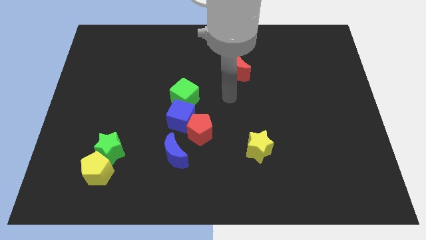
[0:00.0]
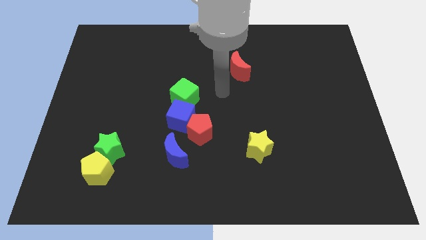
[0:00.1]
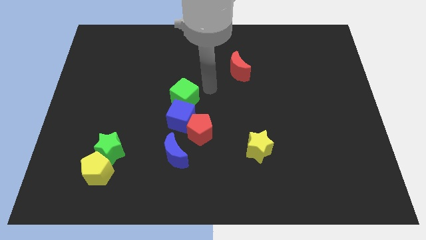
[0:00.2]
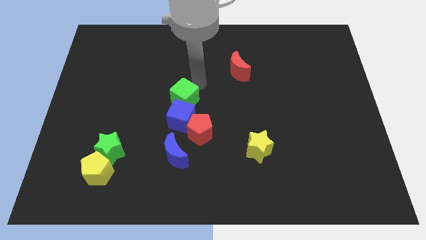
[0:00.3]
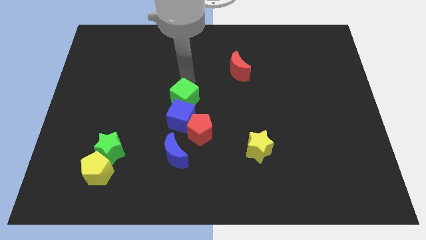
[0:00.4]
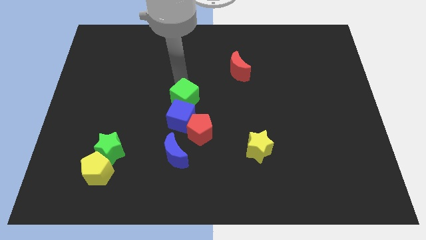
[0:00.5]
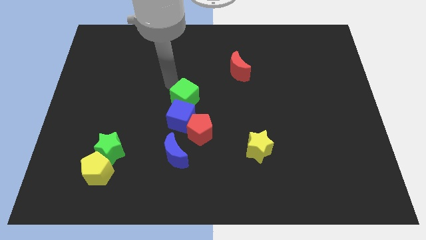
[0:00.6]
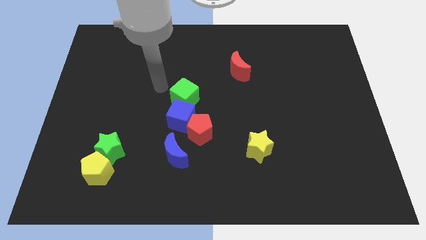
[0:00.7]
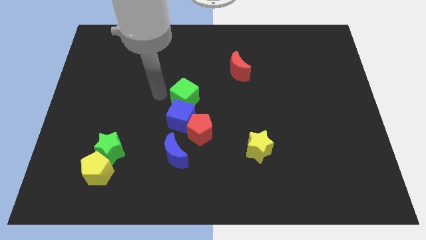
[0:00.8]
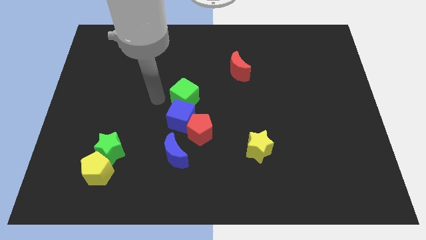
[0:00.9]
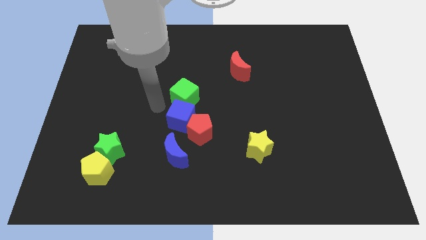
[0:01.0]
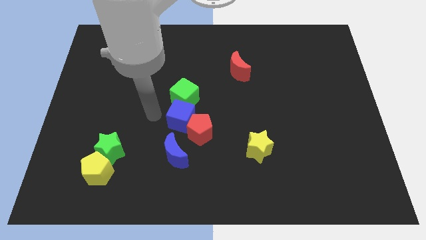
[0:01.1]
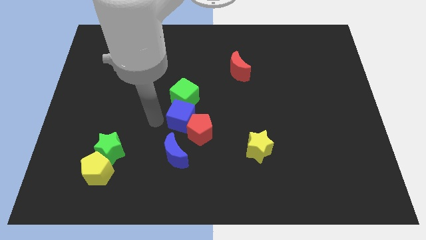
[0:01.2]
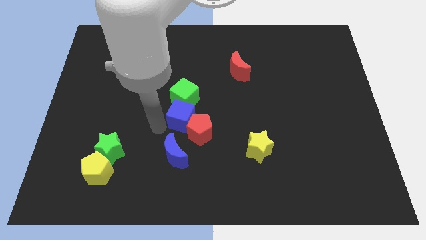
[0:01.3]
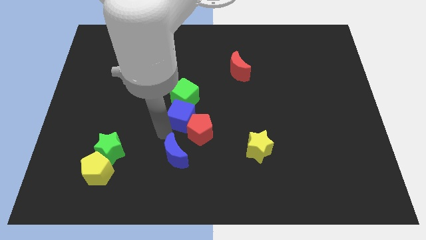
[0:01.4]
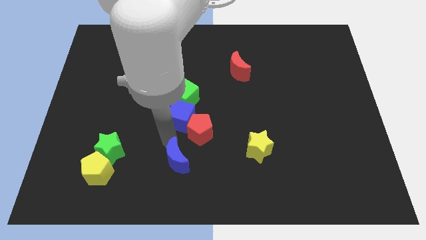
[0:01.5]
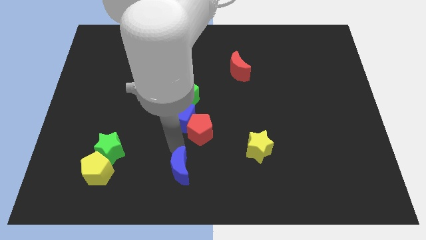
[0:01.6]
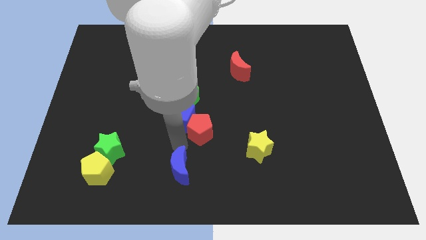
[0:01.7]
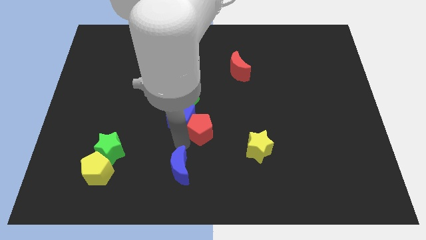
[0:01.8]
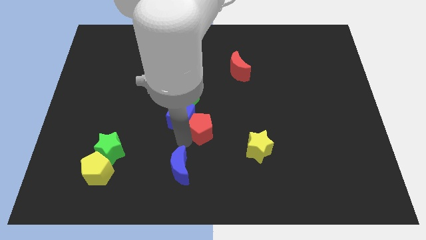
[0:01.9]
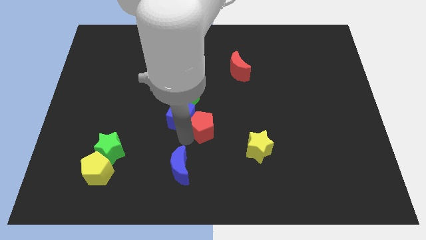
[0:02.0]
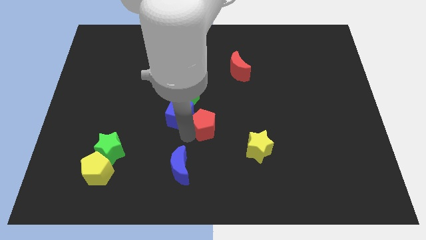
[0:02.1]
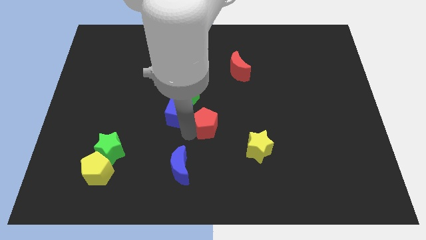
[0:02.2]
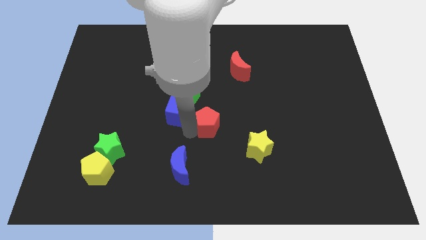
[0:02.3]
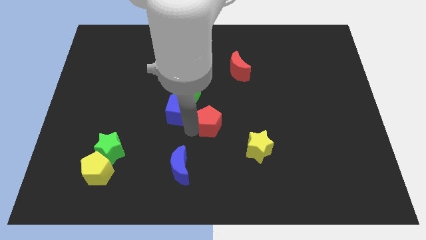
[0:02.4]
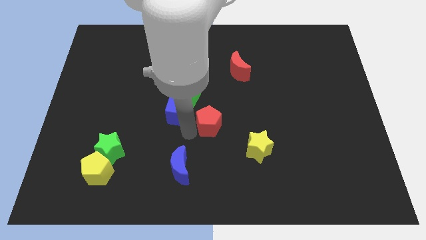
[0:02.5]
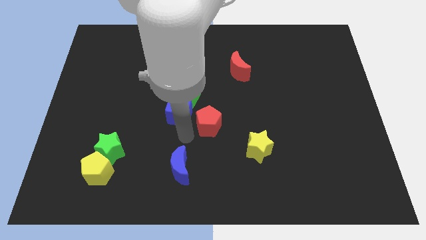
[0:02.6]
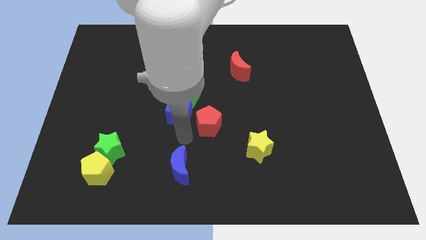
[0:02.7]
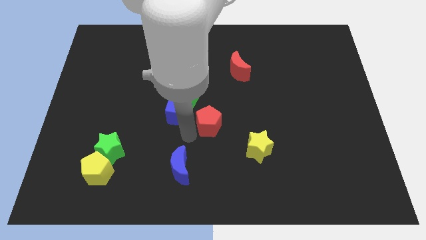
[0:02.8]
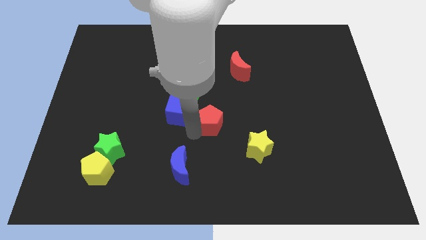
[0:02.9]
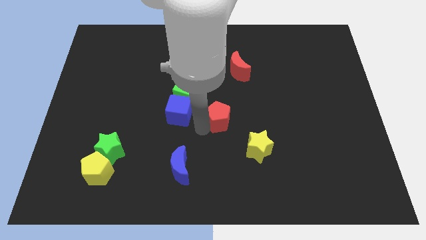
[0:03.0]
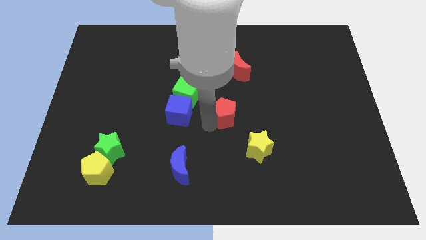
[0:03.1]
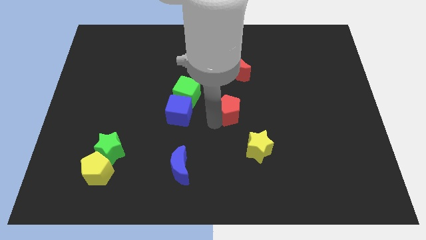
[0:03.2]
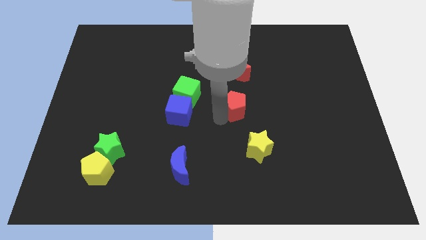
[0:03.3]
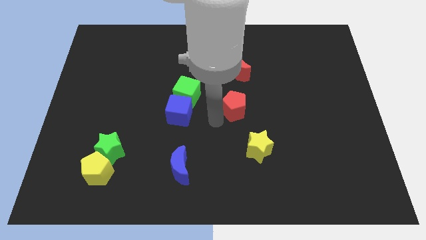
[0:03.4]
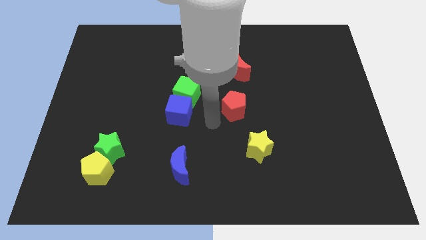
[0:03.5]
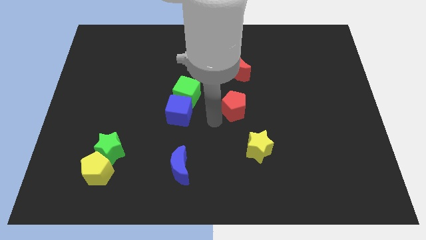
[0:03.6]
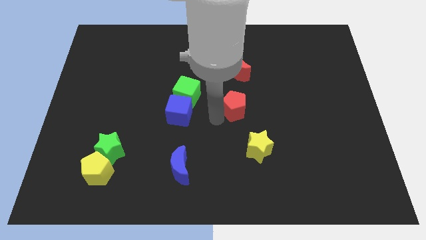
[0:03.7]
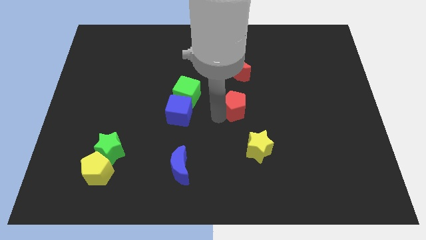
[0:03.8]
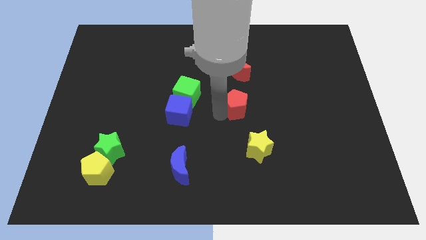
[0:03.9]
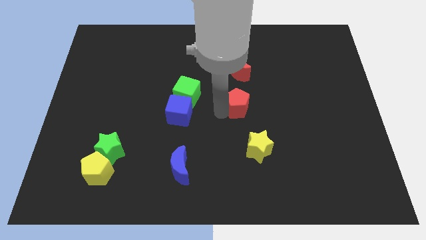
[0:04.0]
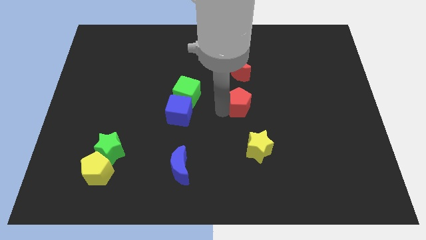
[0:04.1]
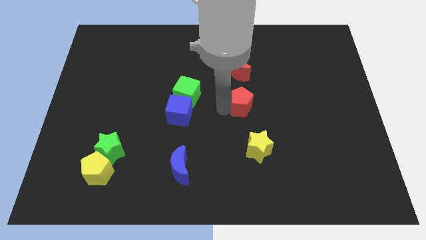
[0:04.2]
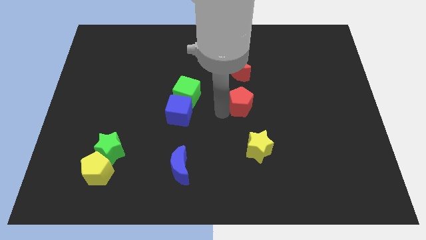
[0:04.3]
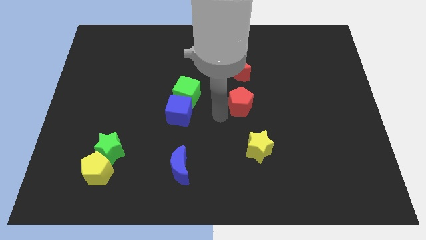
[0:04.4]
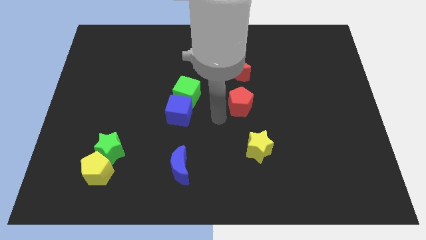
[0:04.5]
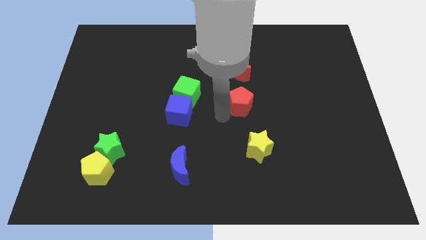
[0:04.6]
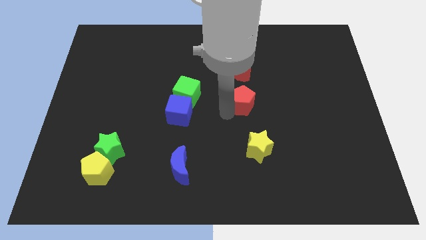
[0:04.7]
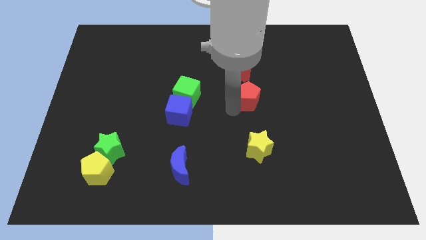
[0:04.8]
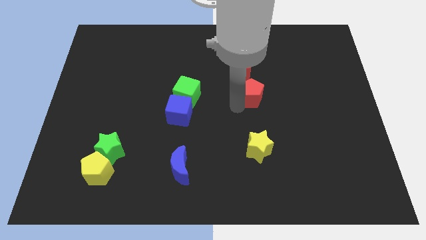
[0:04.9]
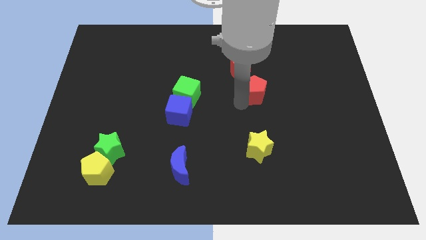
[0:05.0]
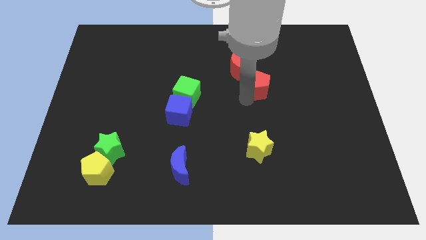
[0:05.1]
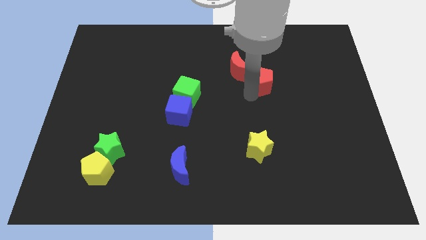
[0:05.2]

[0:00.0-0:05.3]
push the red pentagon upwards and to the right diagonally

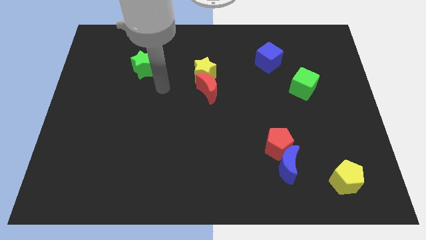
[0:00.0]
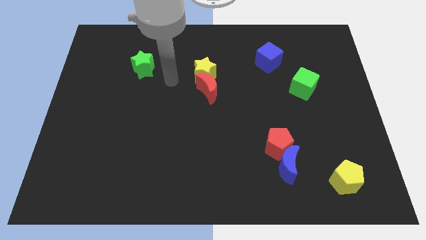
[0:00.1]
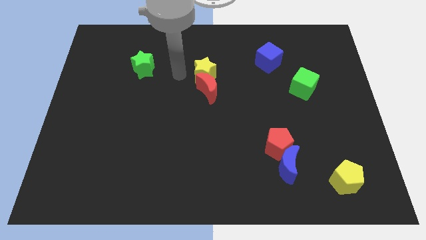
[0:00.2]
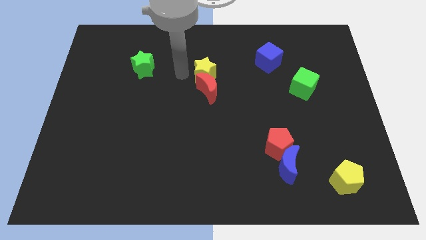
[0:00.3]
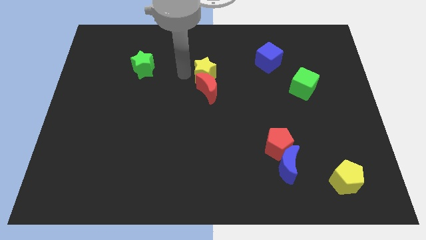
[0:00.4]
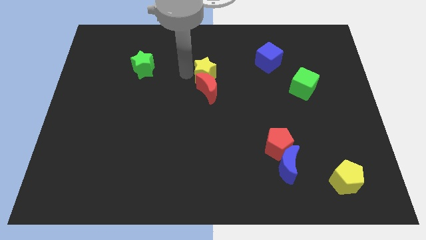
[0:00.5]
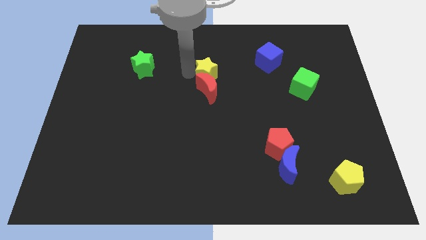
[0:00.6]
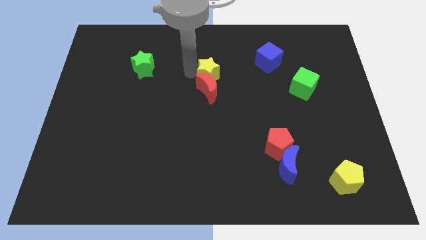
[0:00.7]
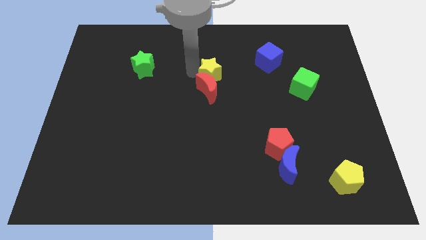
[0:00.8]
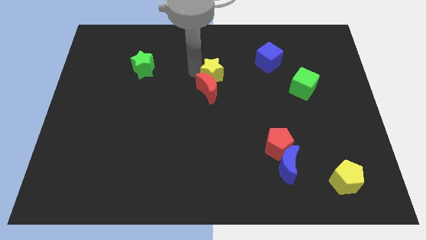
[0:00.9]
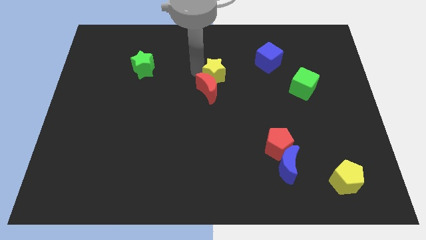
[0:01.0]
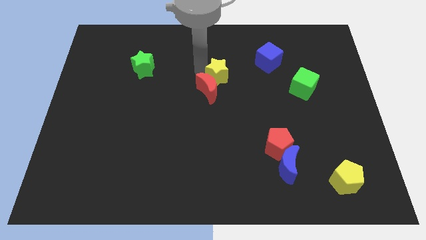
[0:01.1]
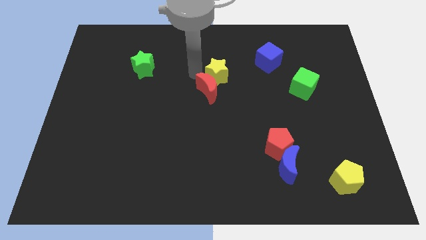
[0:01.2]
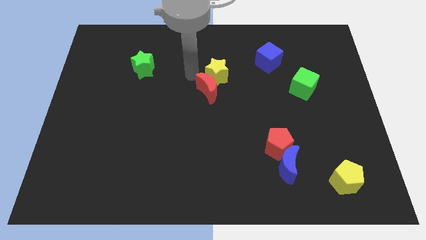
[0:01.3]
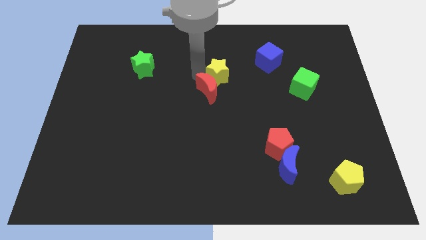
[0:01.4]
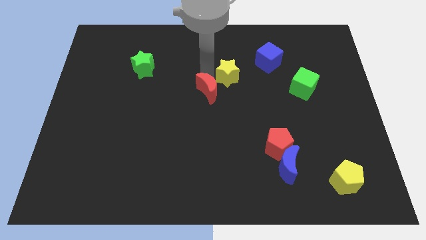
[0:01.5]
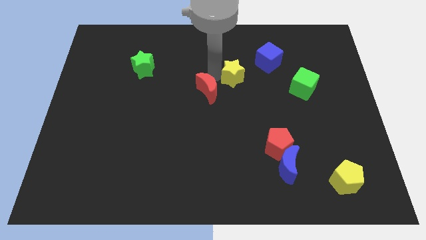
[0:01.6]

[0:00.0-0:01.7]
slide the yellow star right somewhat

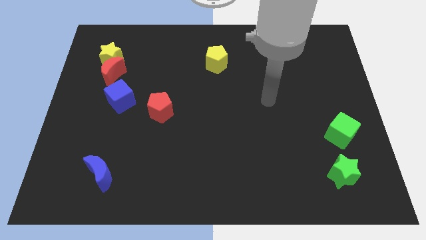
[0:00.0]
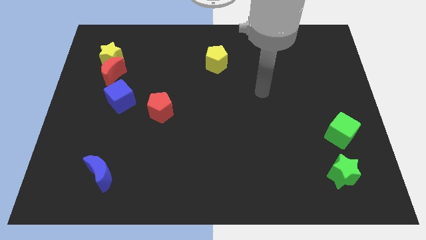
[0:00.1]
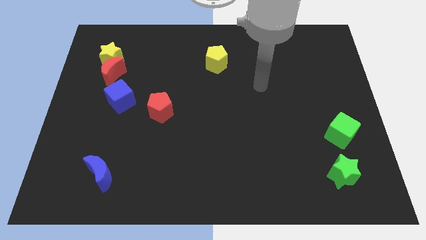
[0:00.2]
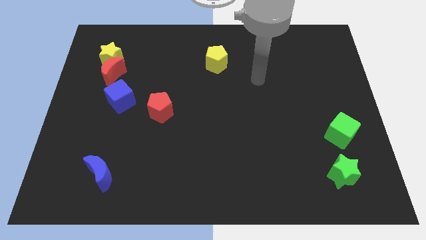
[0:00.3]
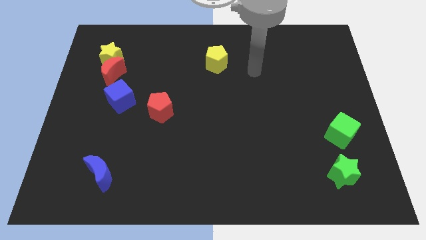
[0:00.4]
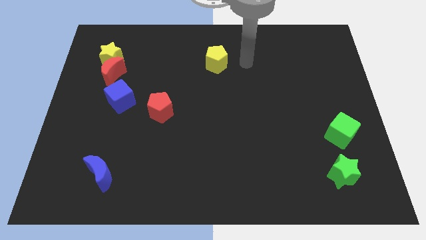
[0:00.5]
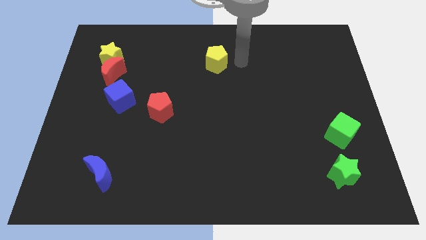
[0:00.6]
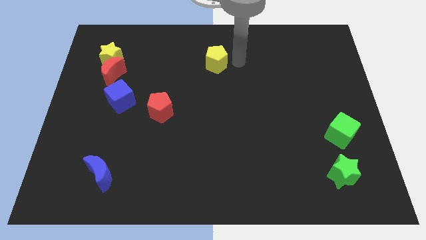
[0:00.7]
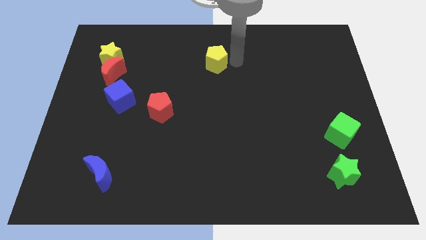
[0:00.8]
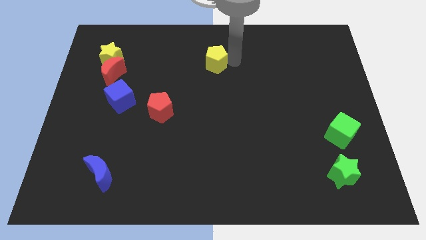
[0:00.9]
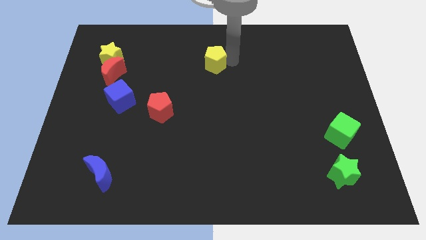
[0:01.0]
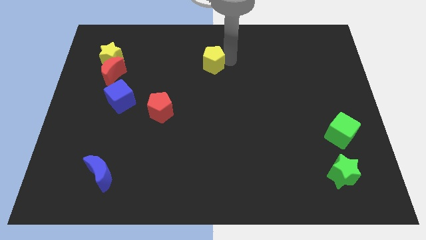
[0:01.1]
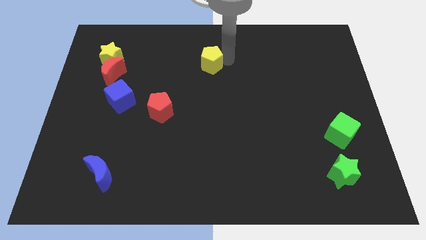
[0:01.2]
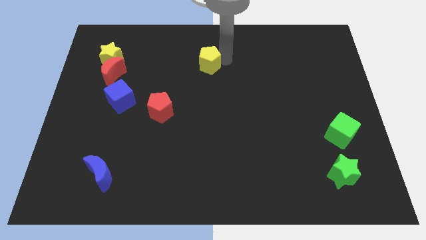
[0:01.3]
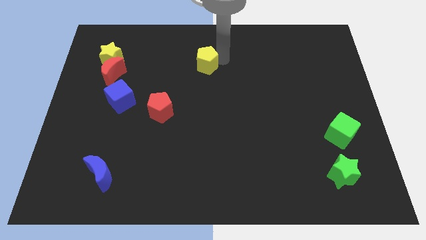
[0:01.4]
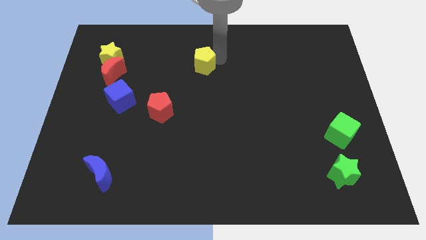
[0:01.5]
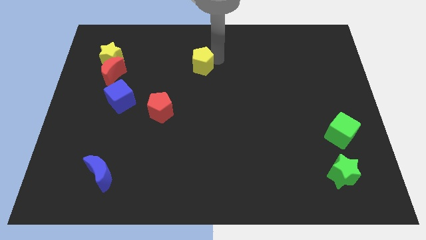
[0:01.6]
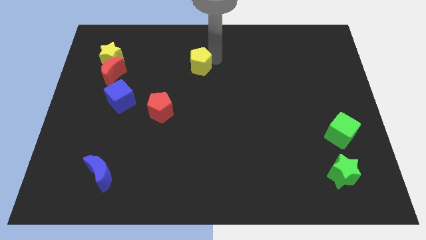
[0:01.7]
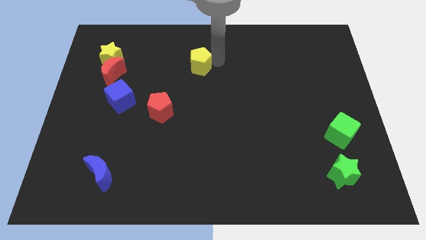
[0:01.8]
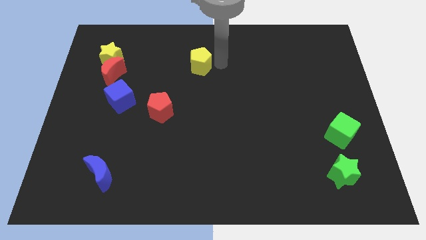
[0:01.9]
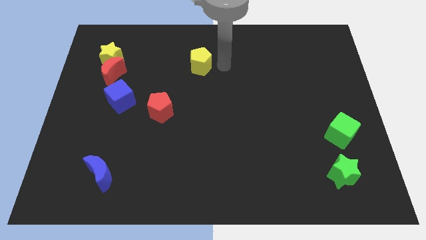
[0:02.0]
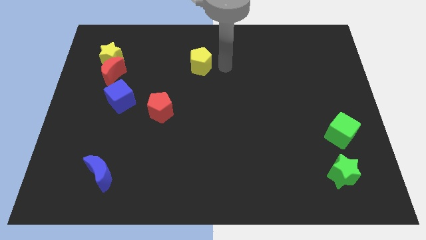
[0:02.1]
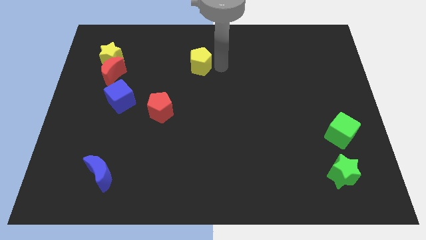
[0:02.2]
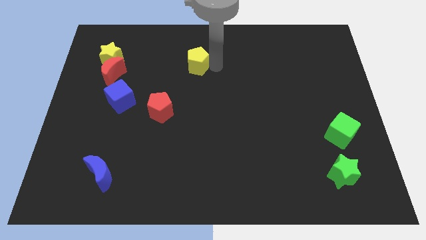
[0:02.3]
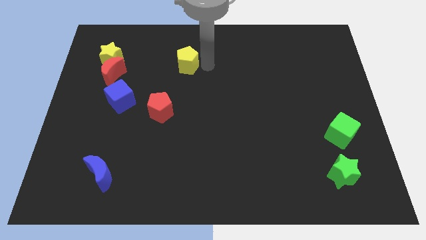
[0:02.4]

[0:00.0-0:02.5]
push the yellow pentagon left somewhat
